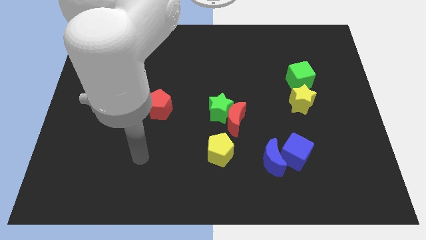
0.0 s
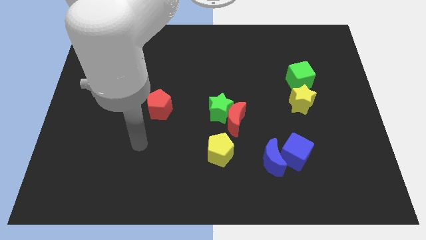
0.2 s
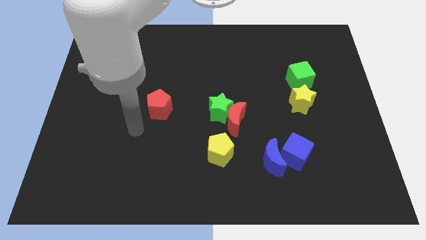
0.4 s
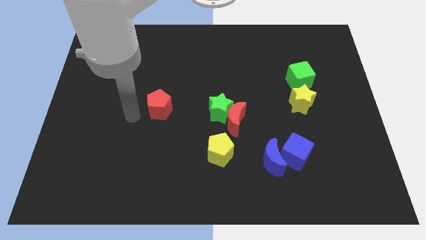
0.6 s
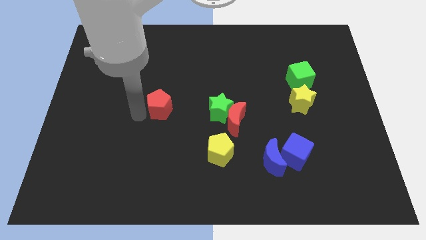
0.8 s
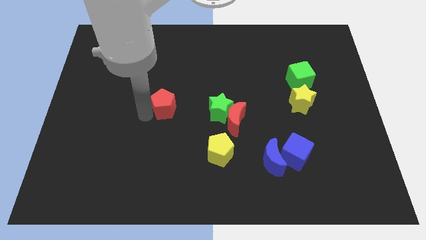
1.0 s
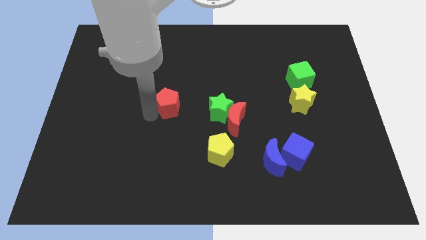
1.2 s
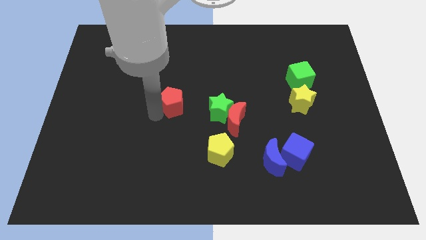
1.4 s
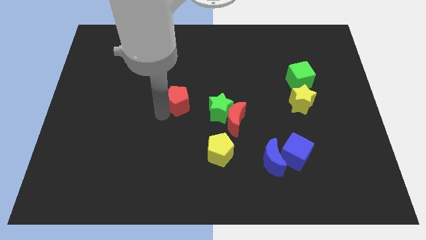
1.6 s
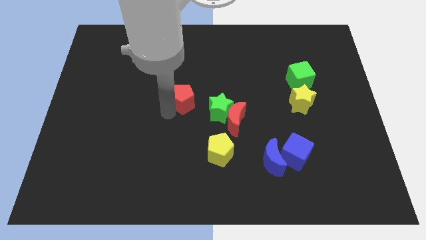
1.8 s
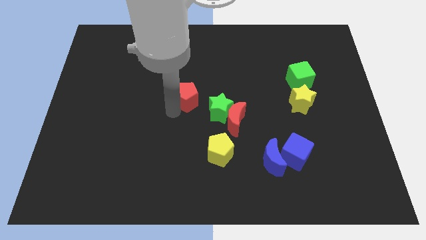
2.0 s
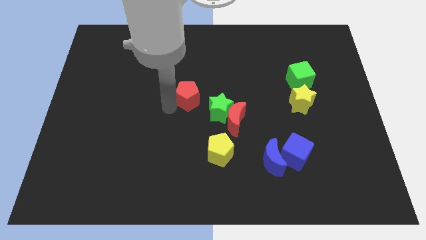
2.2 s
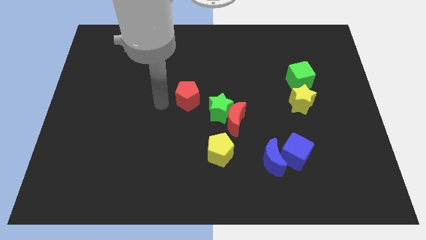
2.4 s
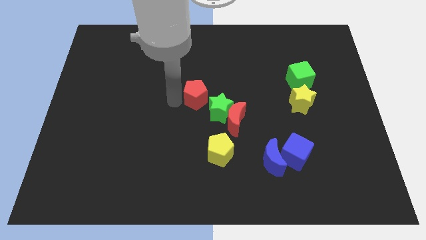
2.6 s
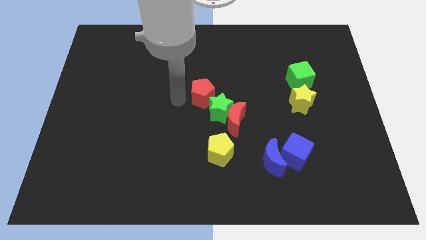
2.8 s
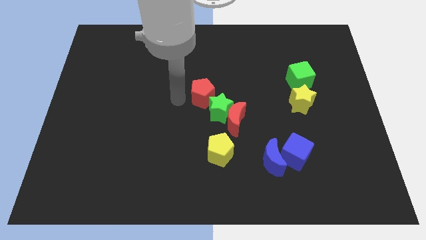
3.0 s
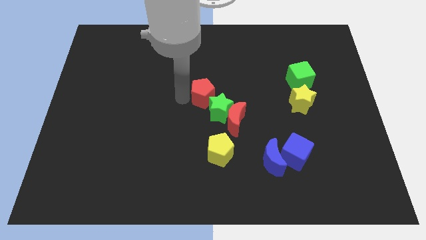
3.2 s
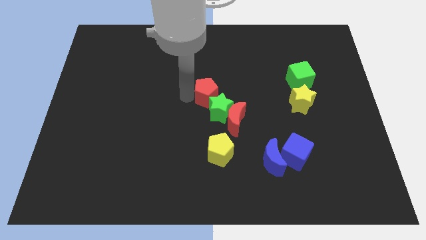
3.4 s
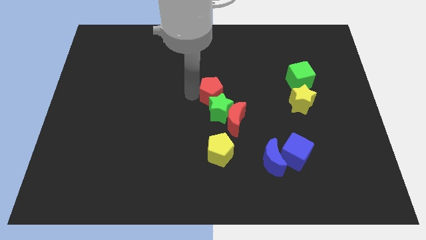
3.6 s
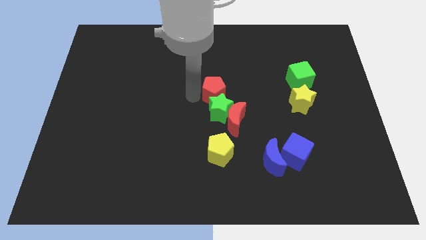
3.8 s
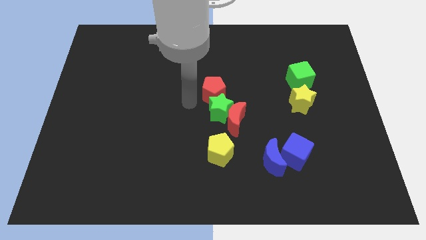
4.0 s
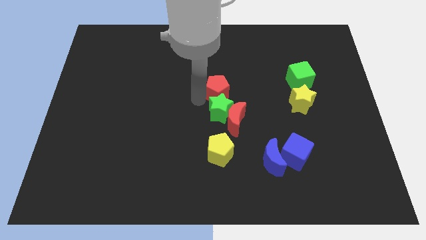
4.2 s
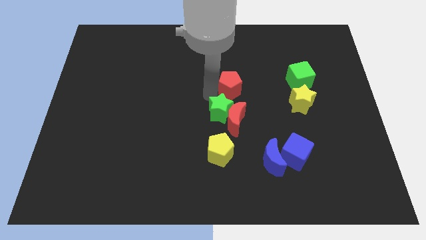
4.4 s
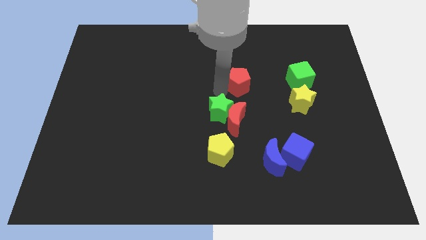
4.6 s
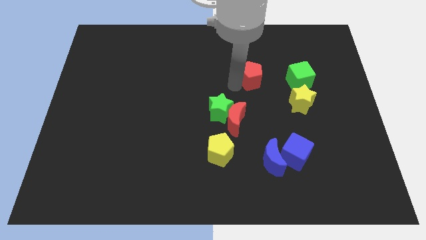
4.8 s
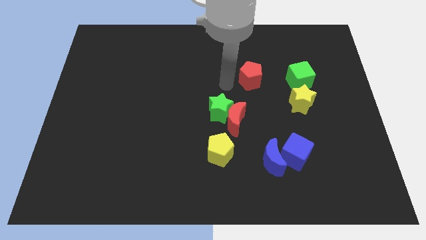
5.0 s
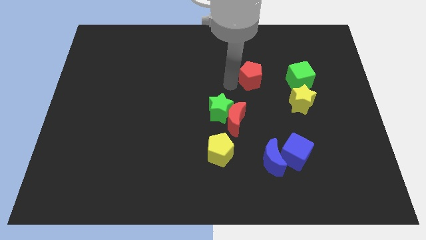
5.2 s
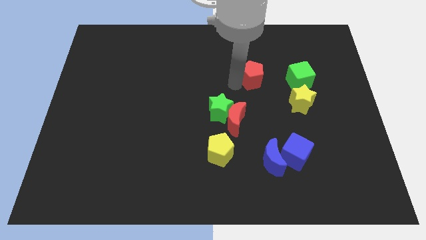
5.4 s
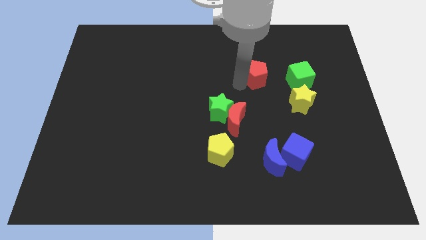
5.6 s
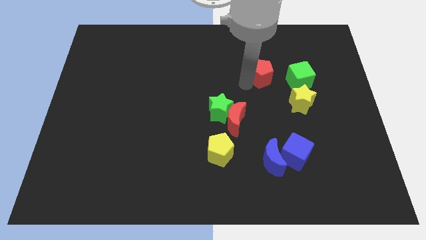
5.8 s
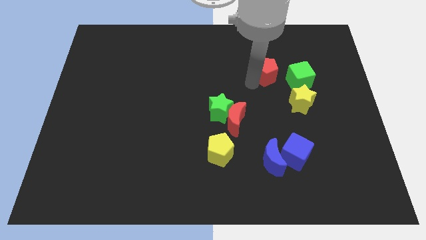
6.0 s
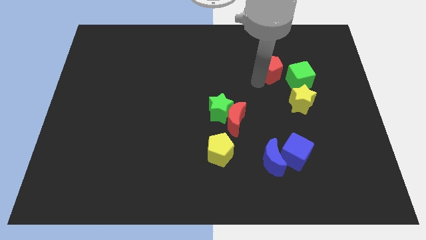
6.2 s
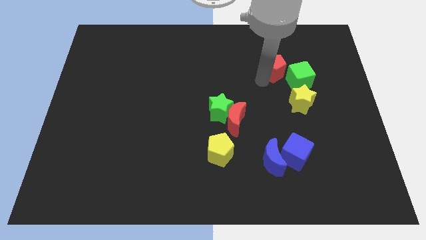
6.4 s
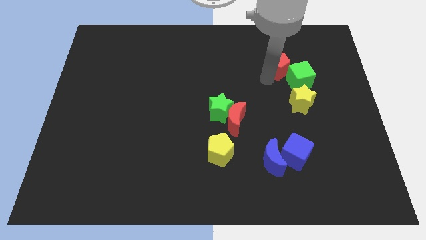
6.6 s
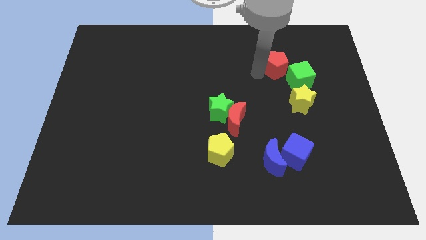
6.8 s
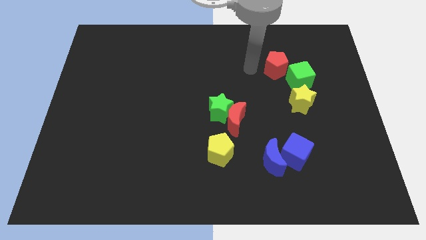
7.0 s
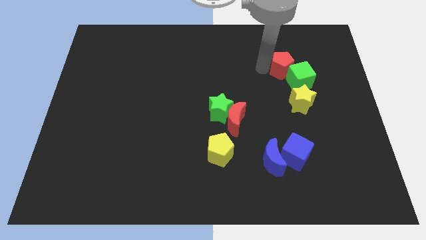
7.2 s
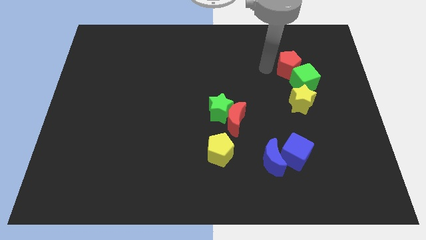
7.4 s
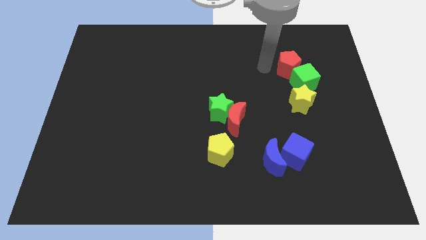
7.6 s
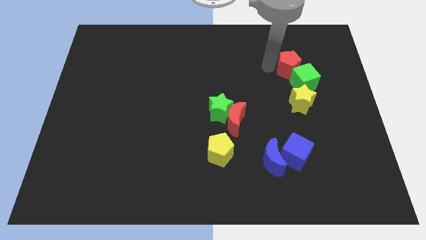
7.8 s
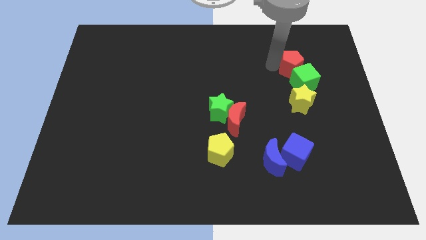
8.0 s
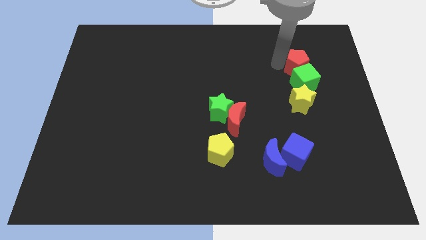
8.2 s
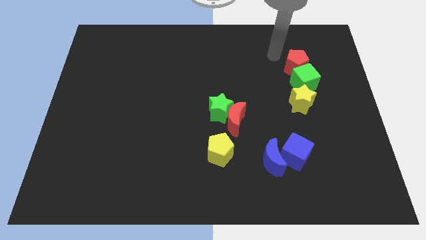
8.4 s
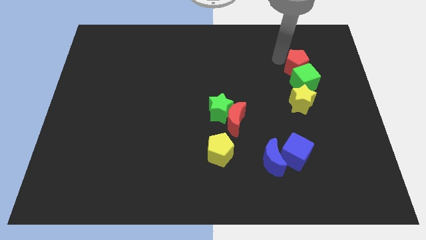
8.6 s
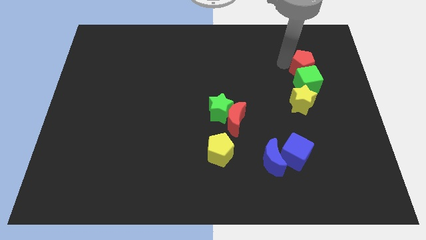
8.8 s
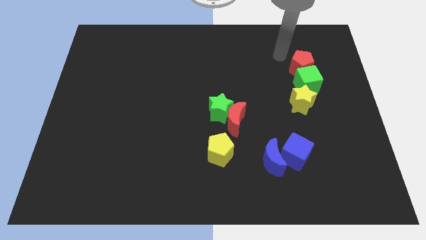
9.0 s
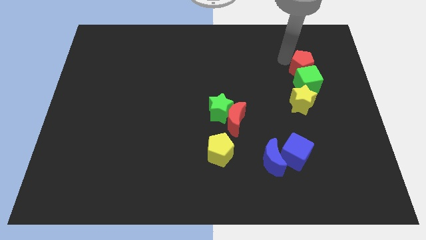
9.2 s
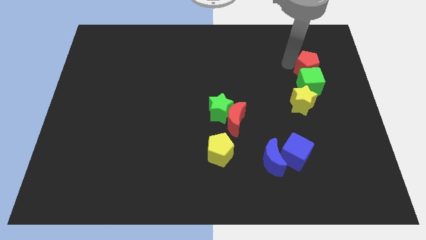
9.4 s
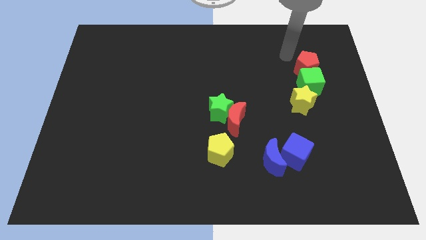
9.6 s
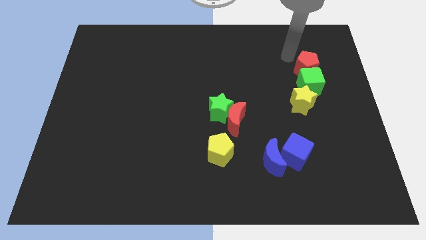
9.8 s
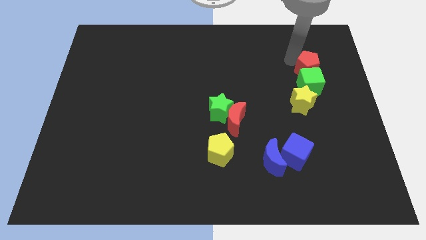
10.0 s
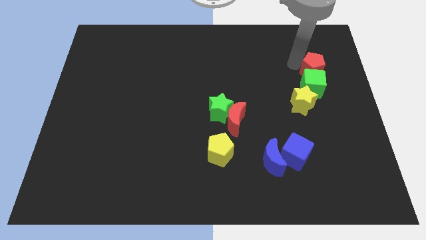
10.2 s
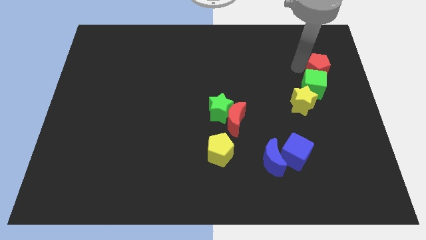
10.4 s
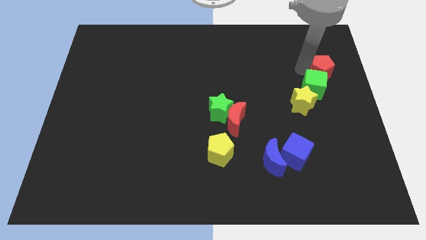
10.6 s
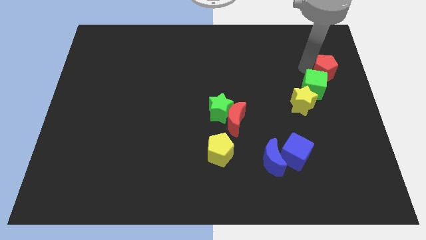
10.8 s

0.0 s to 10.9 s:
move the red pentagon to the right side
